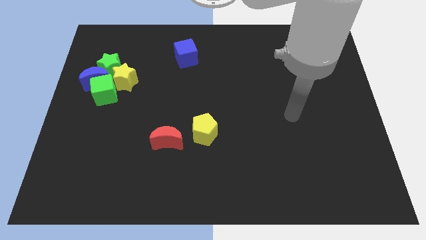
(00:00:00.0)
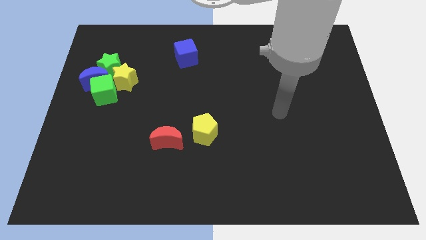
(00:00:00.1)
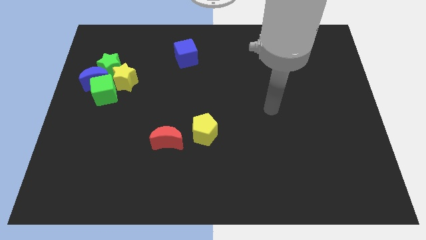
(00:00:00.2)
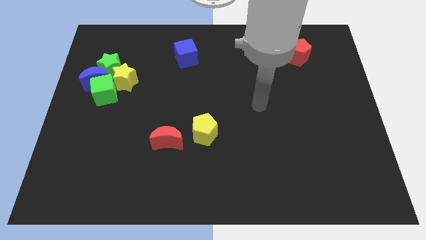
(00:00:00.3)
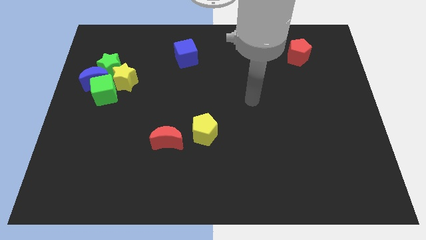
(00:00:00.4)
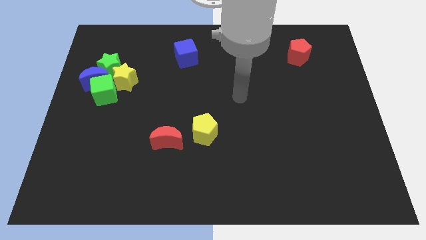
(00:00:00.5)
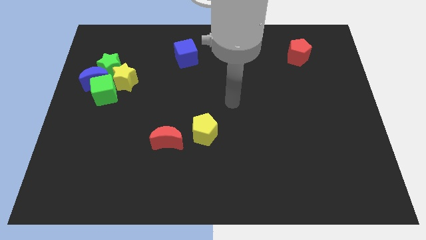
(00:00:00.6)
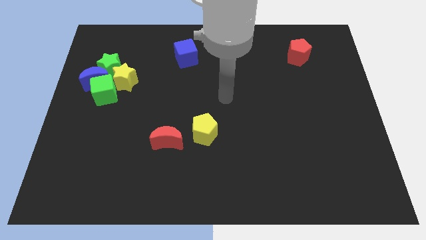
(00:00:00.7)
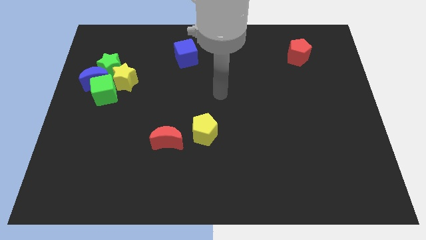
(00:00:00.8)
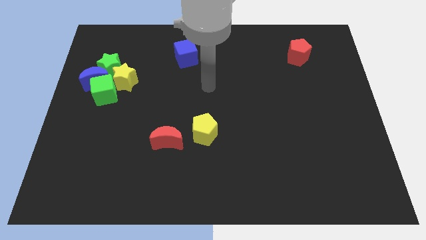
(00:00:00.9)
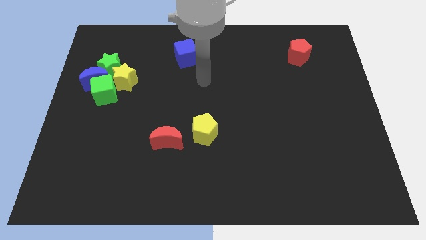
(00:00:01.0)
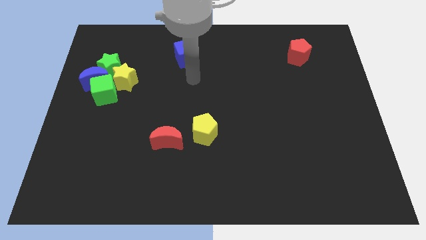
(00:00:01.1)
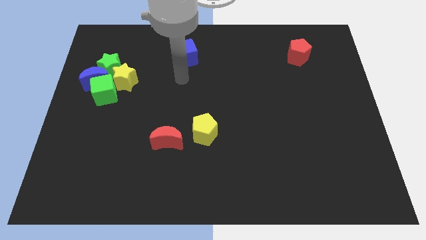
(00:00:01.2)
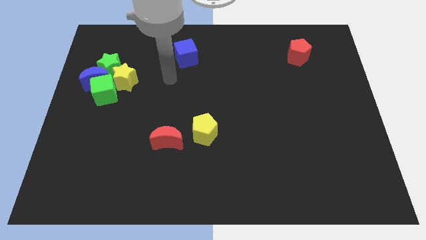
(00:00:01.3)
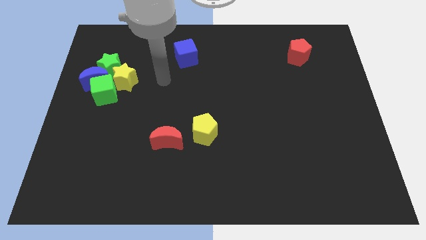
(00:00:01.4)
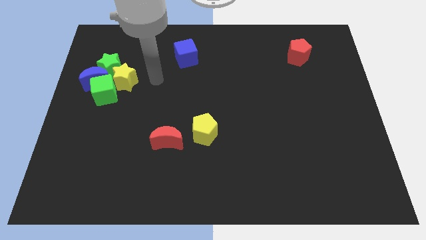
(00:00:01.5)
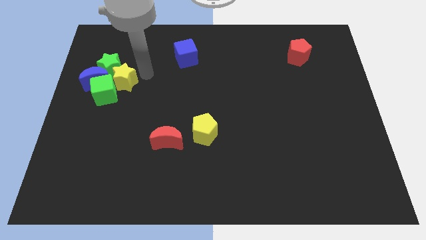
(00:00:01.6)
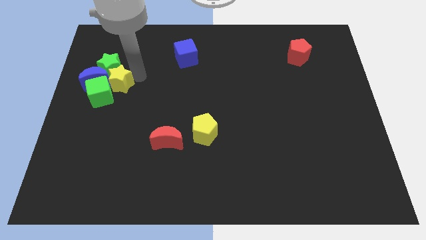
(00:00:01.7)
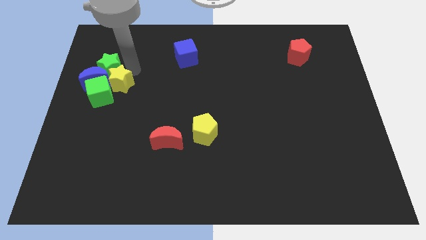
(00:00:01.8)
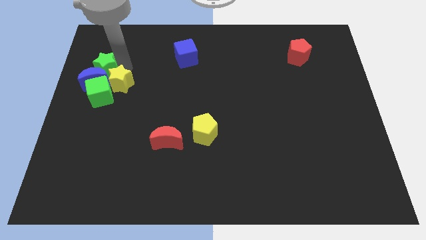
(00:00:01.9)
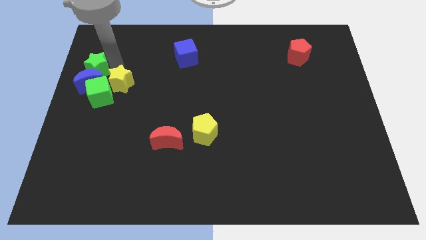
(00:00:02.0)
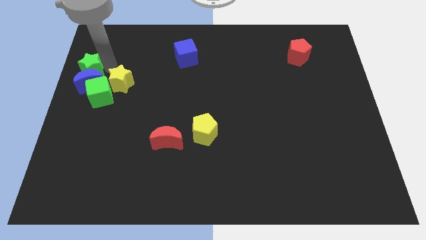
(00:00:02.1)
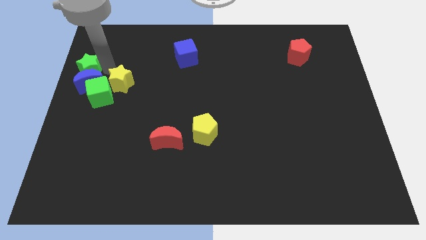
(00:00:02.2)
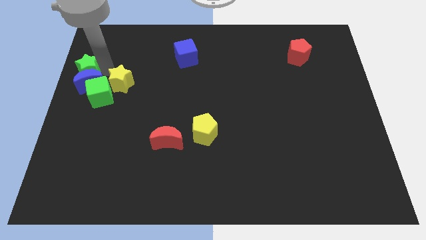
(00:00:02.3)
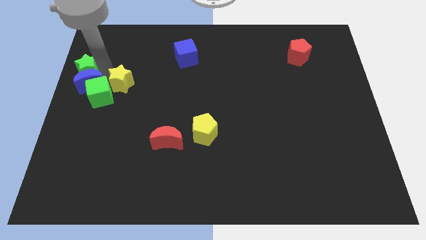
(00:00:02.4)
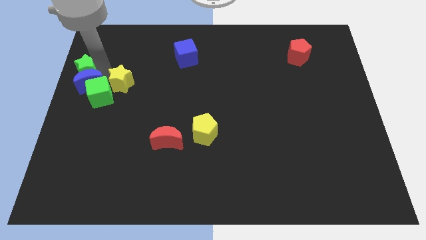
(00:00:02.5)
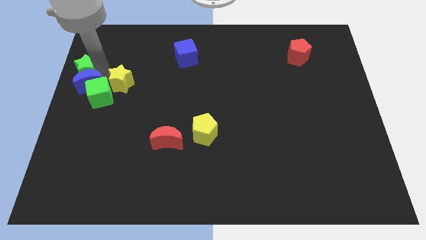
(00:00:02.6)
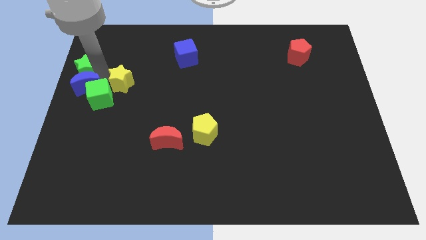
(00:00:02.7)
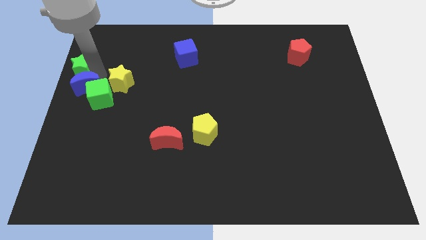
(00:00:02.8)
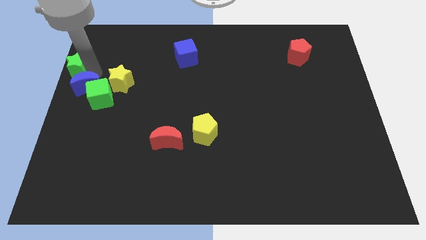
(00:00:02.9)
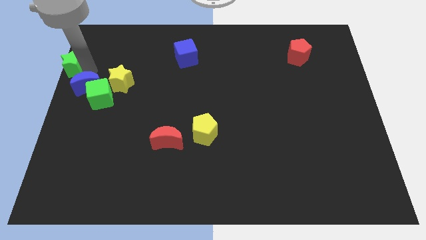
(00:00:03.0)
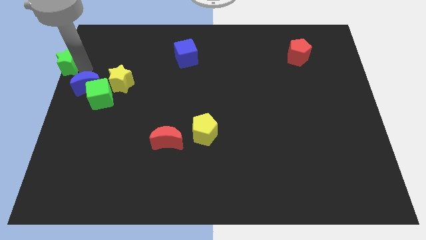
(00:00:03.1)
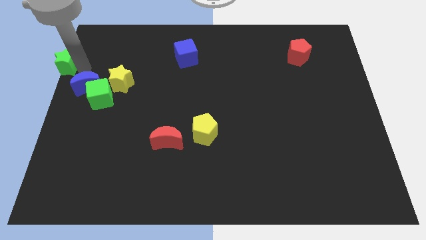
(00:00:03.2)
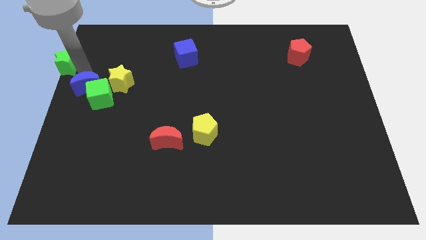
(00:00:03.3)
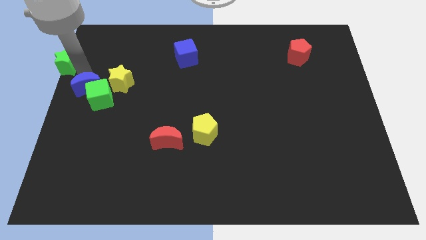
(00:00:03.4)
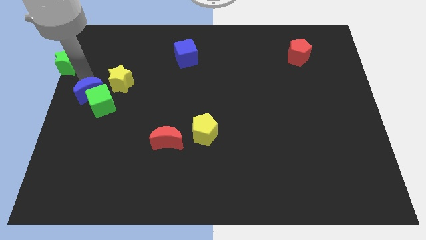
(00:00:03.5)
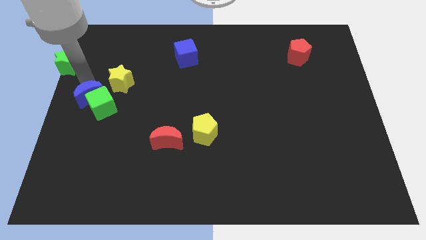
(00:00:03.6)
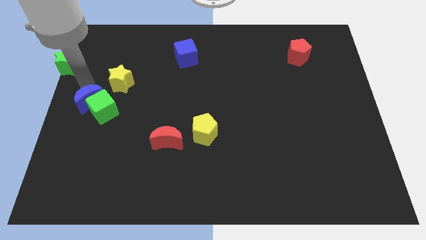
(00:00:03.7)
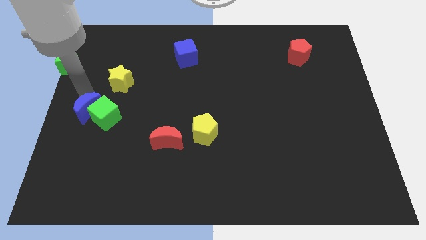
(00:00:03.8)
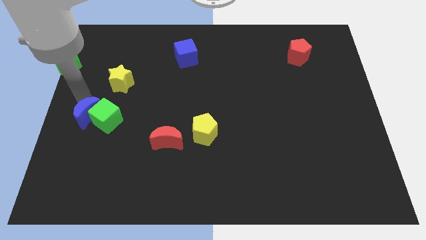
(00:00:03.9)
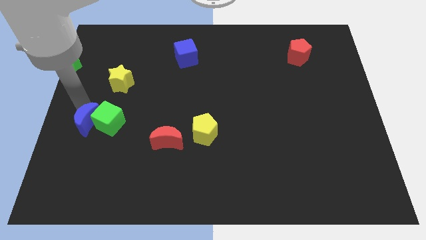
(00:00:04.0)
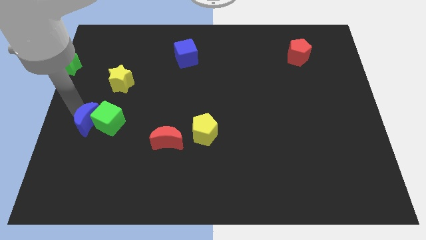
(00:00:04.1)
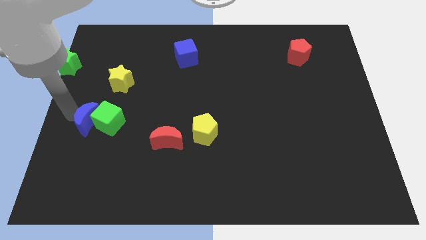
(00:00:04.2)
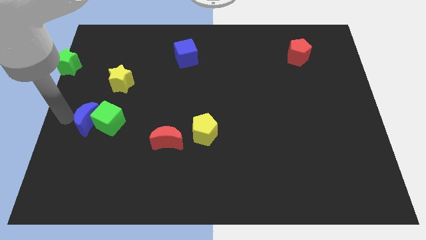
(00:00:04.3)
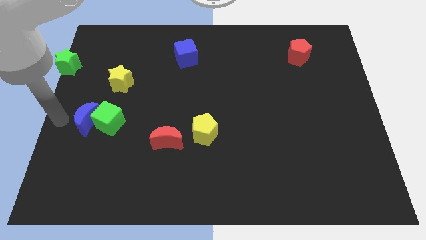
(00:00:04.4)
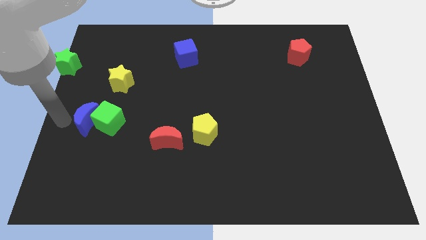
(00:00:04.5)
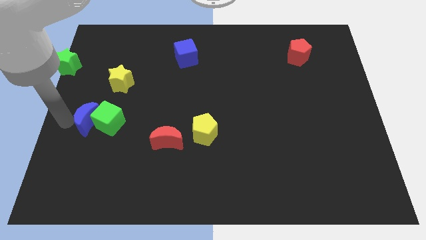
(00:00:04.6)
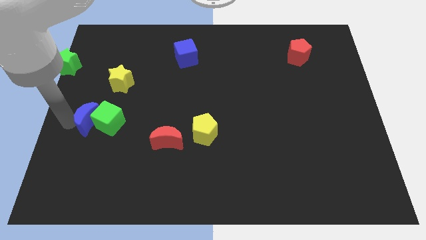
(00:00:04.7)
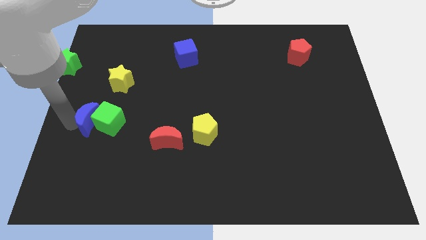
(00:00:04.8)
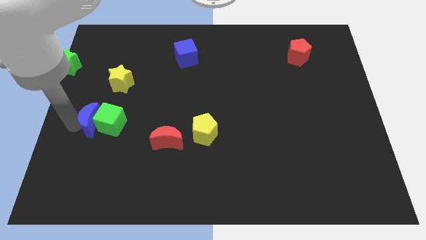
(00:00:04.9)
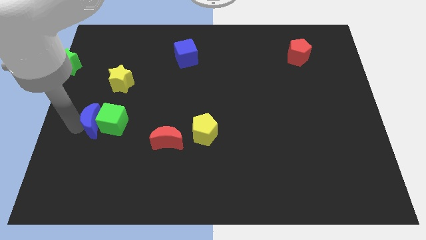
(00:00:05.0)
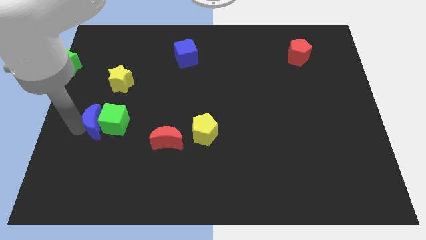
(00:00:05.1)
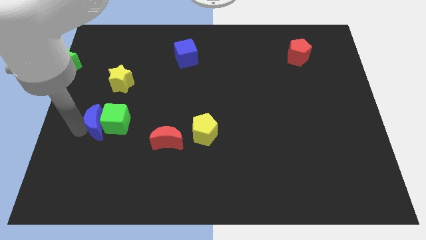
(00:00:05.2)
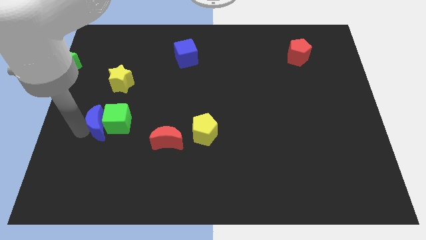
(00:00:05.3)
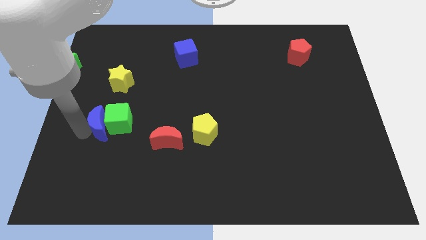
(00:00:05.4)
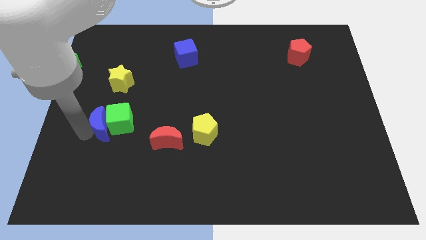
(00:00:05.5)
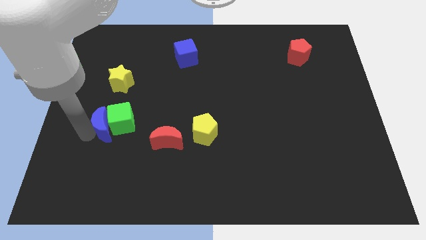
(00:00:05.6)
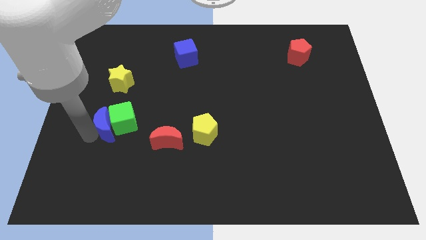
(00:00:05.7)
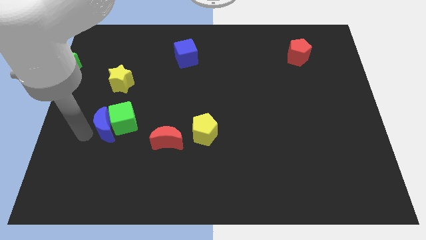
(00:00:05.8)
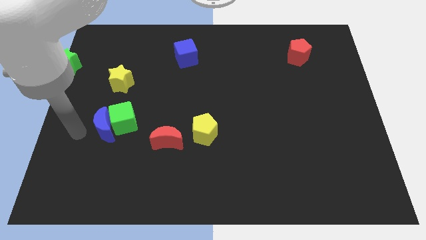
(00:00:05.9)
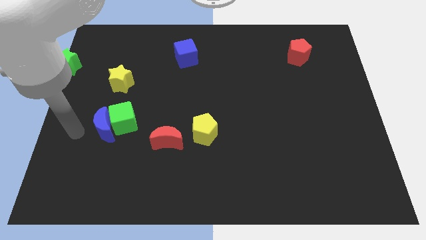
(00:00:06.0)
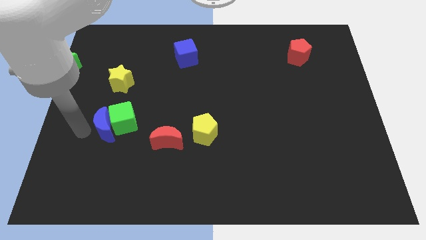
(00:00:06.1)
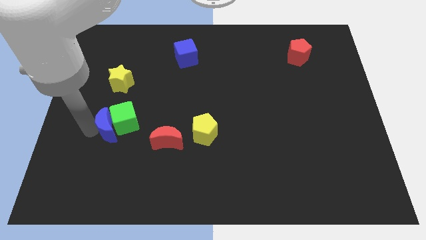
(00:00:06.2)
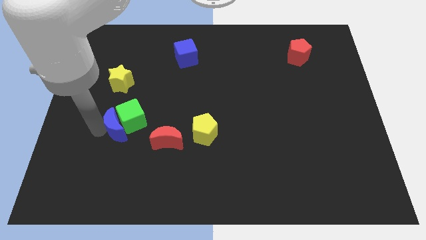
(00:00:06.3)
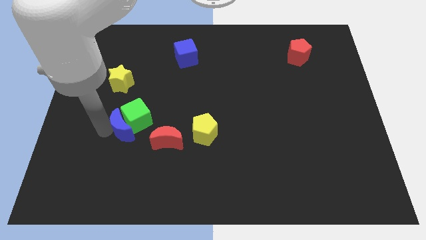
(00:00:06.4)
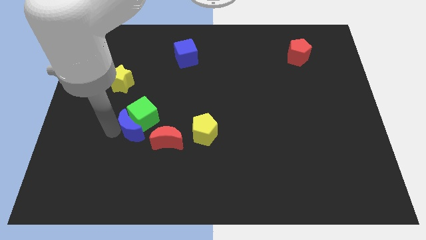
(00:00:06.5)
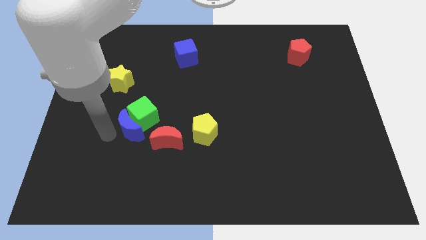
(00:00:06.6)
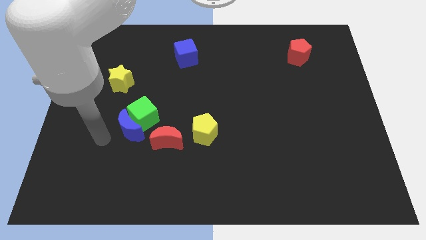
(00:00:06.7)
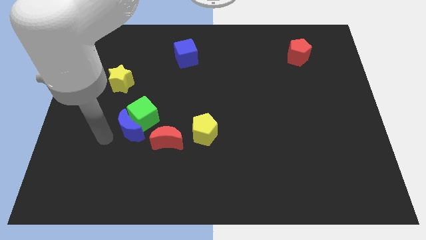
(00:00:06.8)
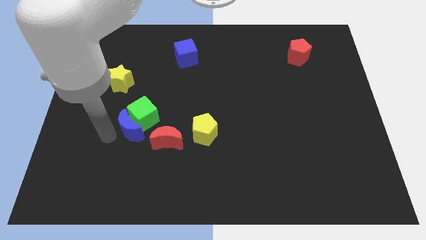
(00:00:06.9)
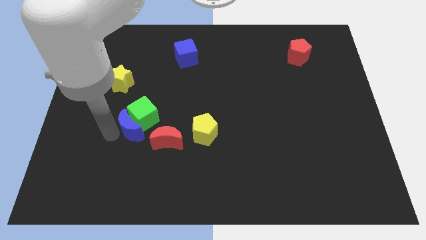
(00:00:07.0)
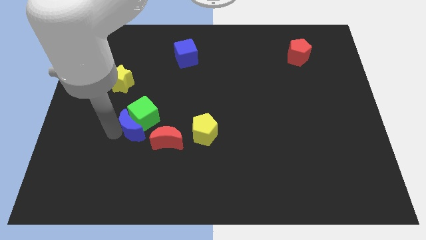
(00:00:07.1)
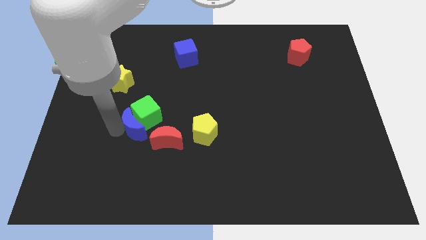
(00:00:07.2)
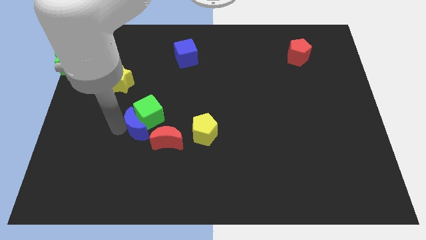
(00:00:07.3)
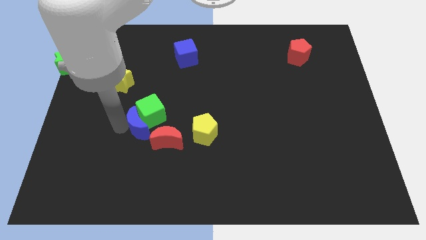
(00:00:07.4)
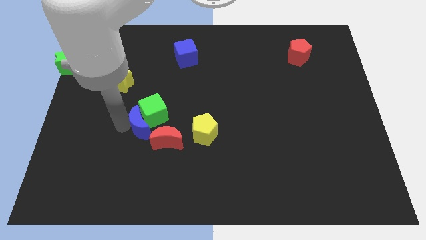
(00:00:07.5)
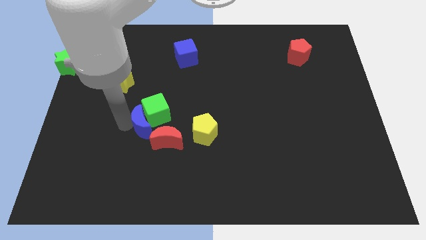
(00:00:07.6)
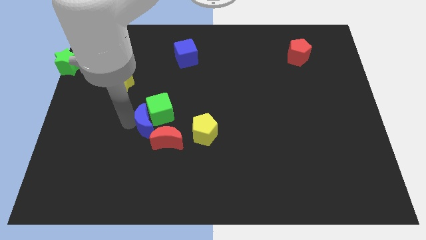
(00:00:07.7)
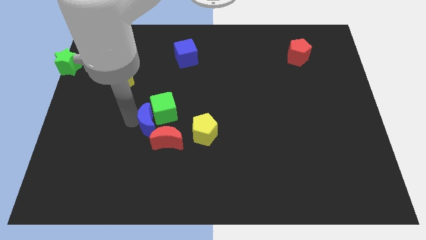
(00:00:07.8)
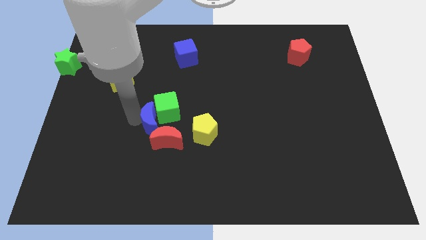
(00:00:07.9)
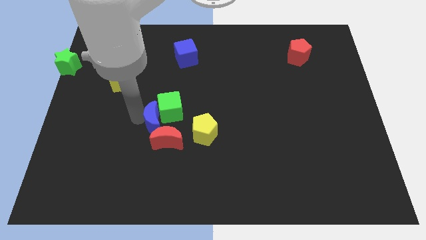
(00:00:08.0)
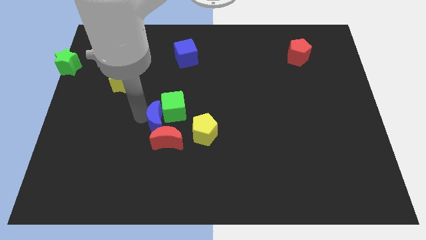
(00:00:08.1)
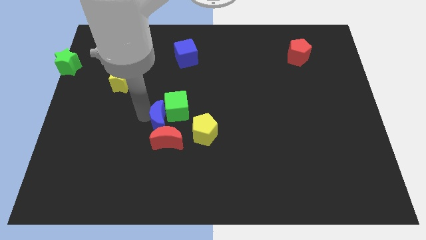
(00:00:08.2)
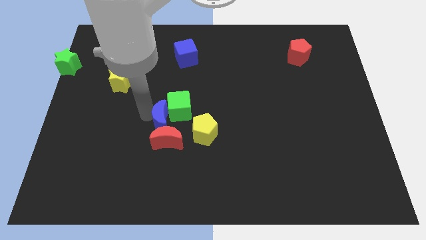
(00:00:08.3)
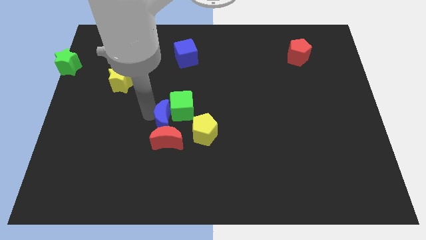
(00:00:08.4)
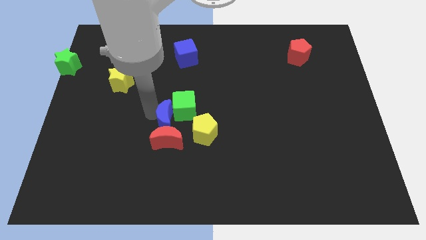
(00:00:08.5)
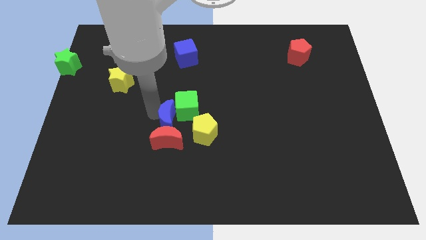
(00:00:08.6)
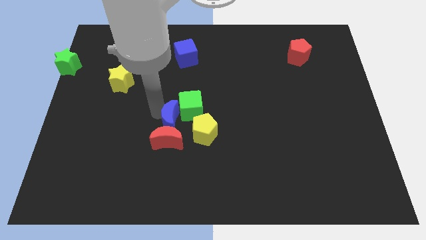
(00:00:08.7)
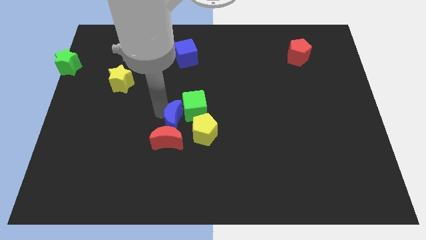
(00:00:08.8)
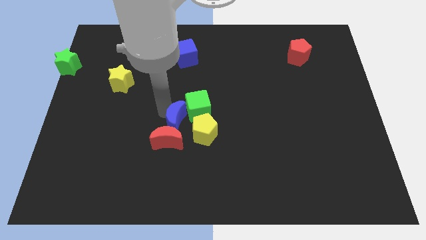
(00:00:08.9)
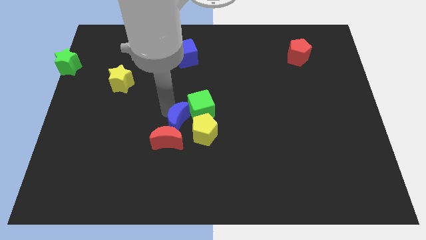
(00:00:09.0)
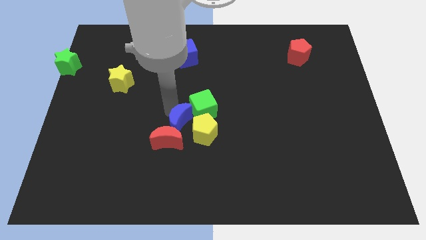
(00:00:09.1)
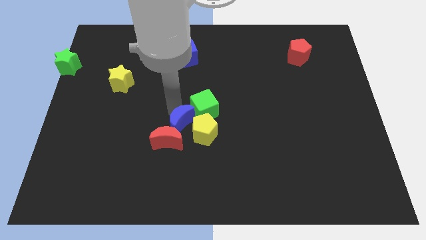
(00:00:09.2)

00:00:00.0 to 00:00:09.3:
move the blue moon close to the yellow pentagon
